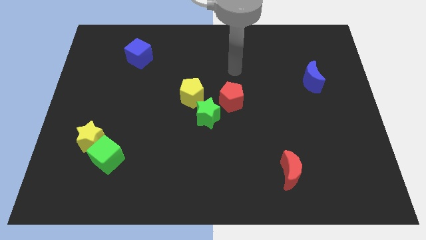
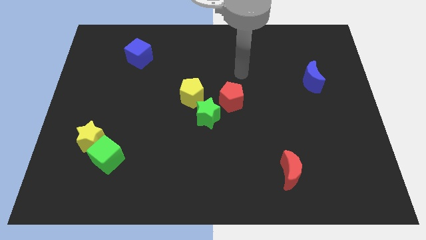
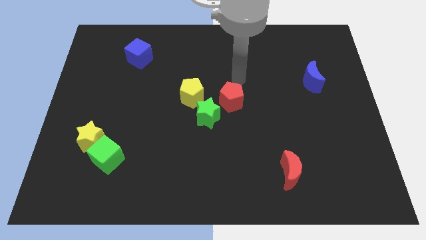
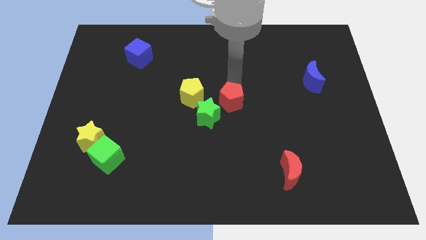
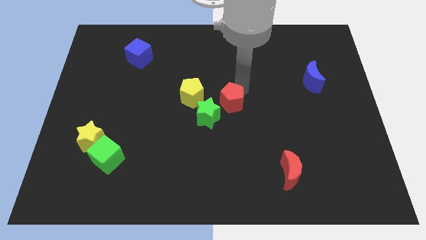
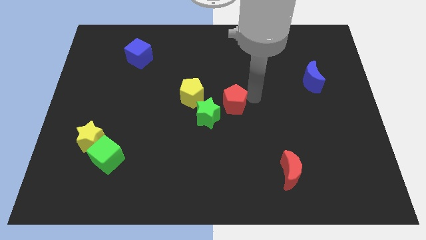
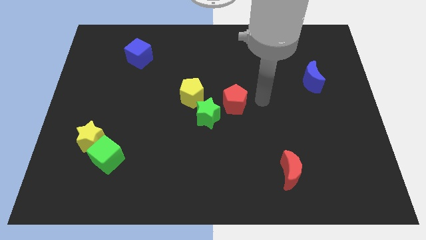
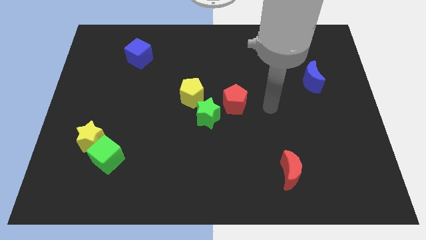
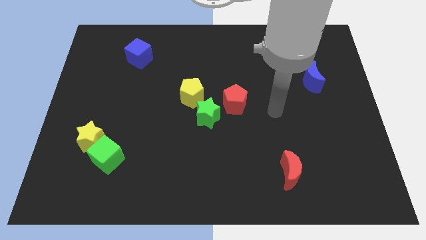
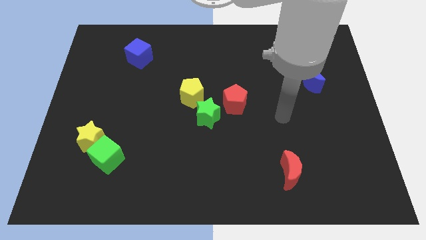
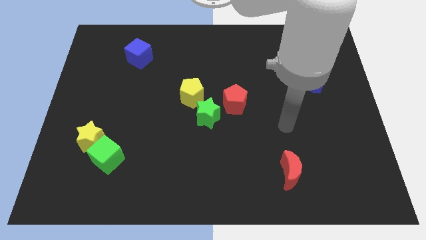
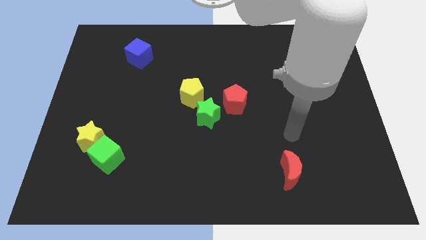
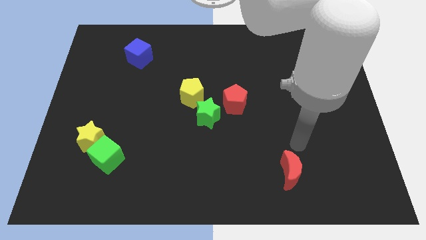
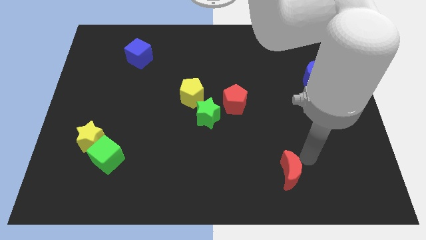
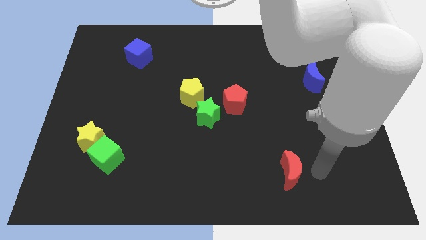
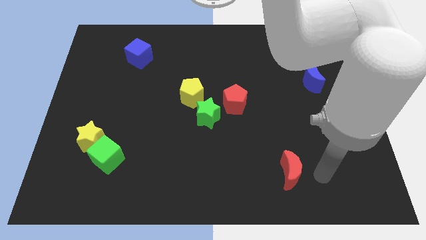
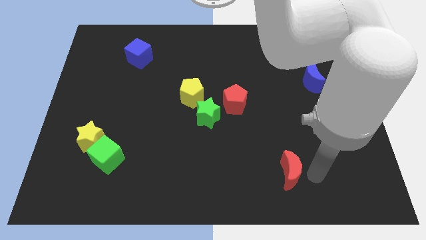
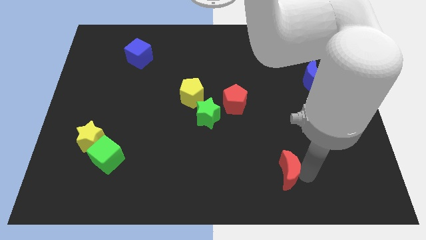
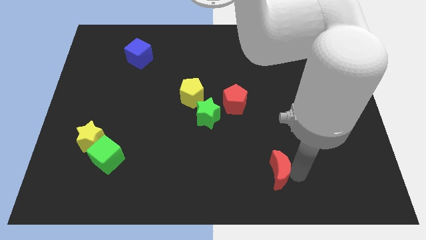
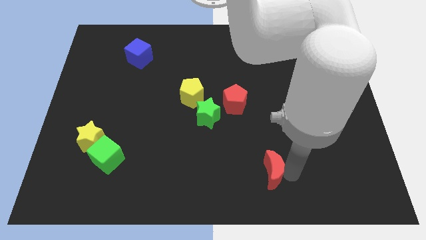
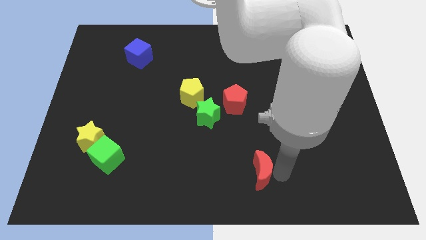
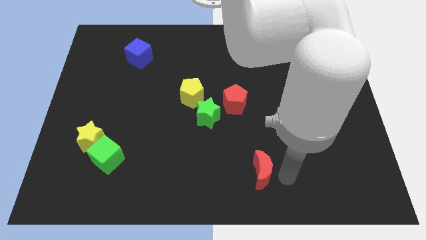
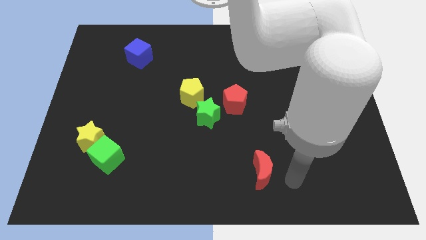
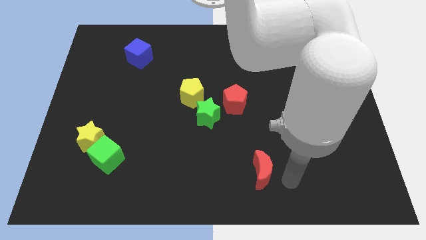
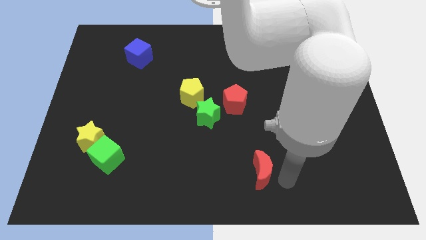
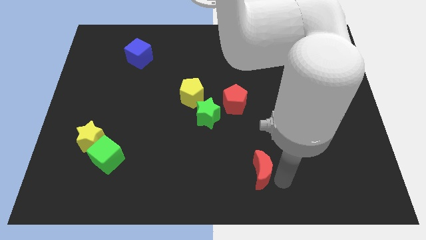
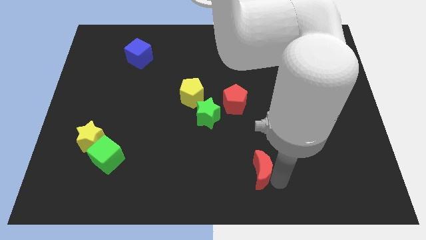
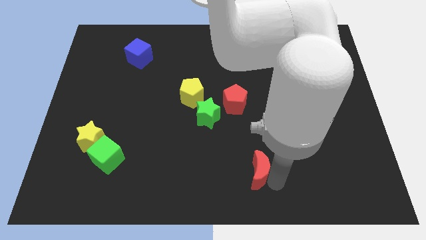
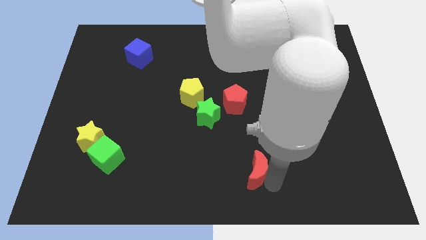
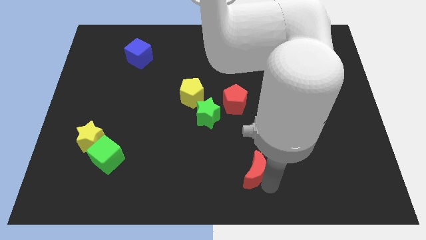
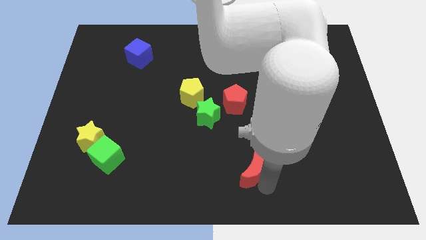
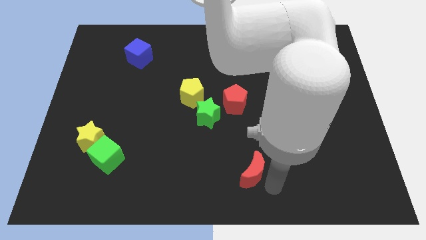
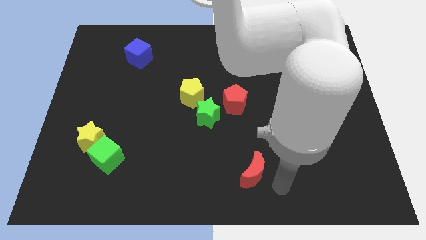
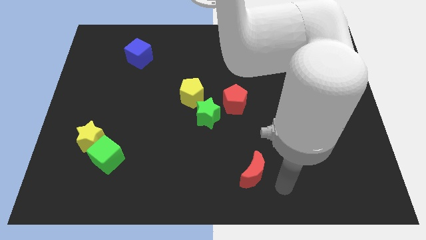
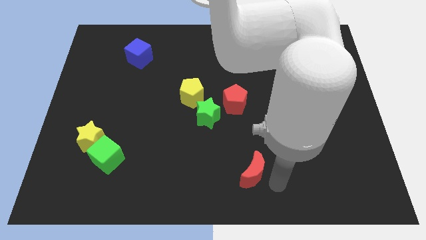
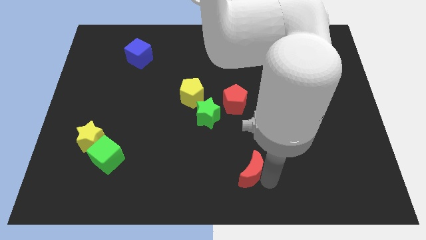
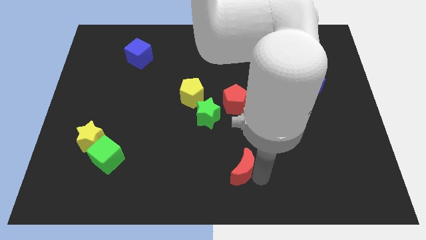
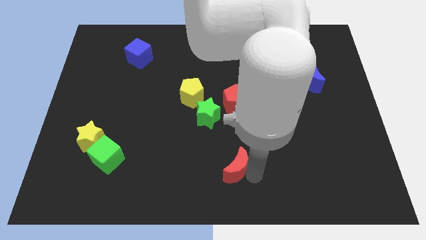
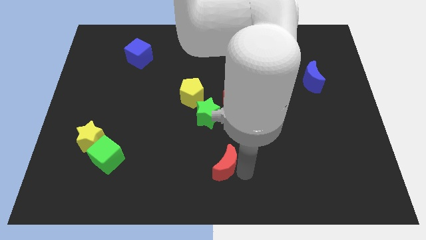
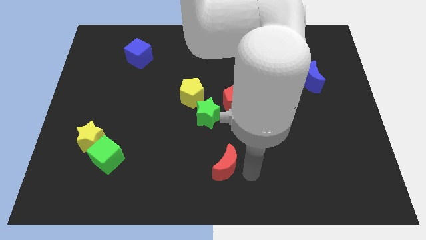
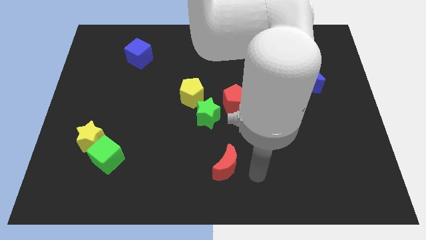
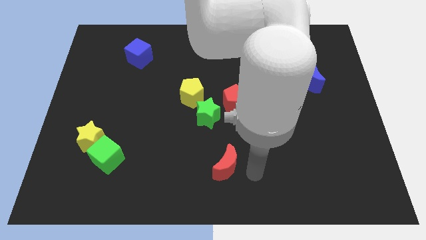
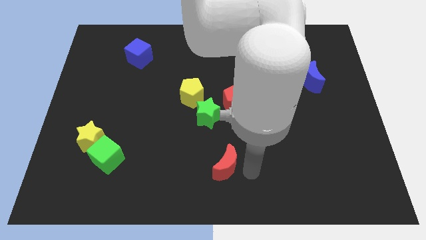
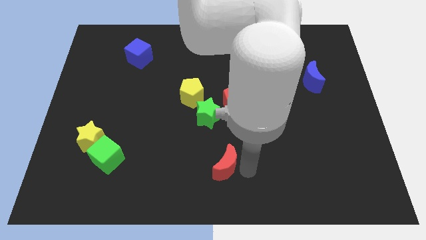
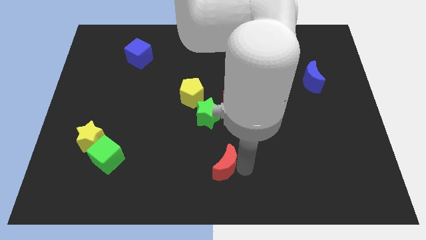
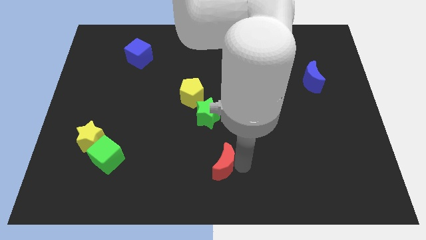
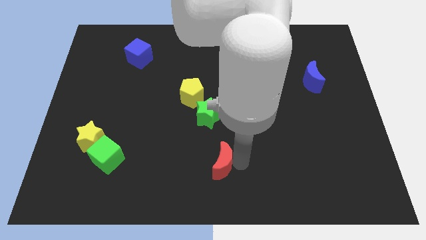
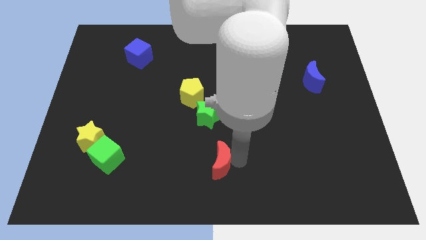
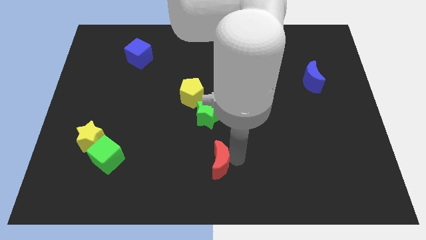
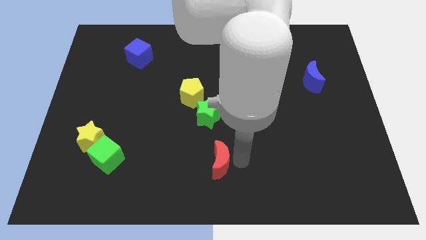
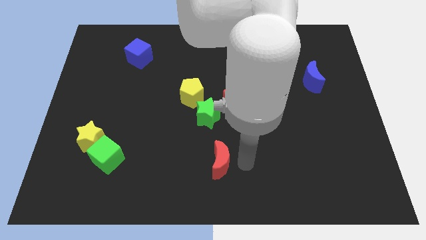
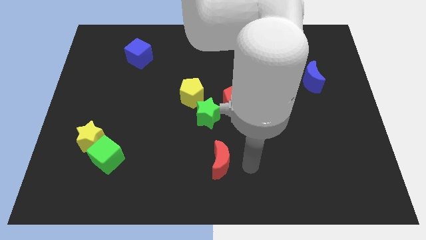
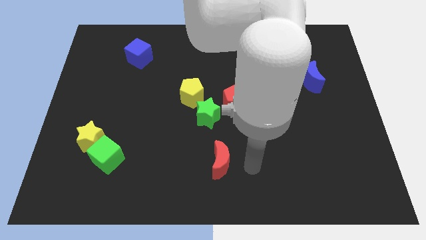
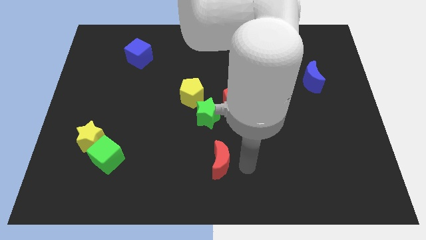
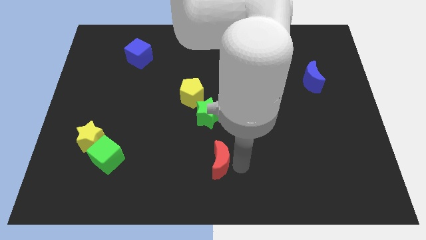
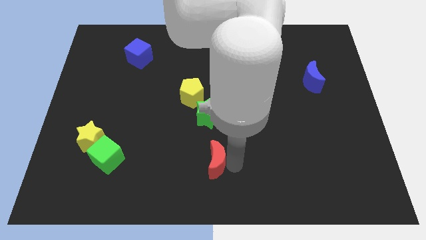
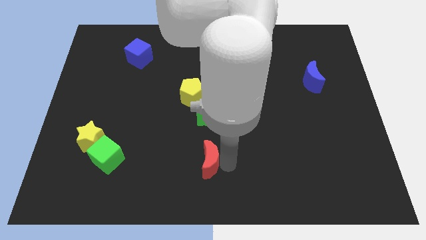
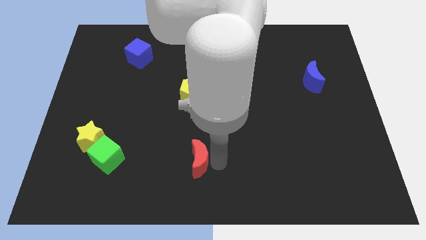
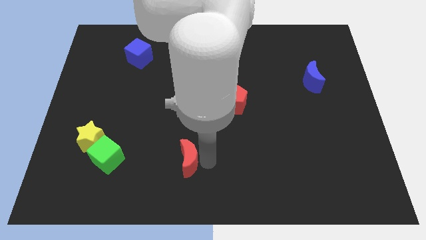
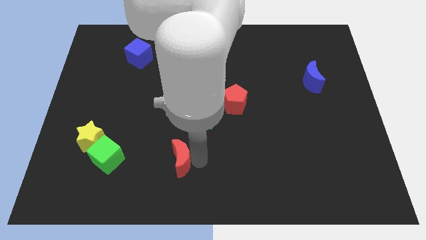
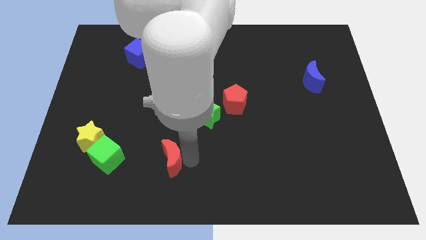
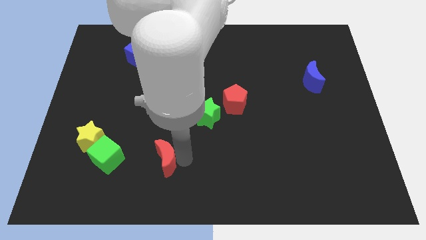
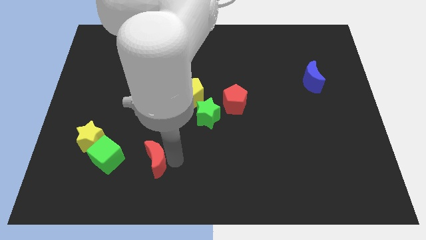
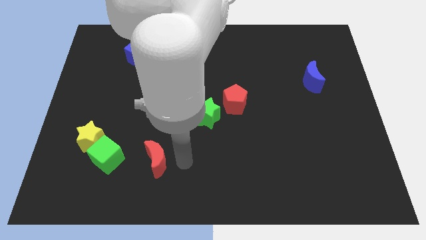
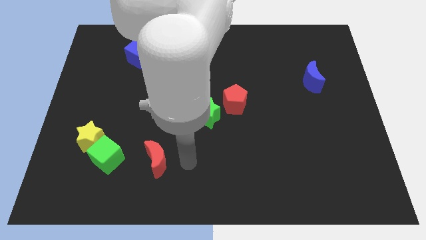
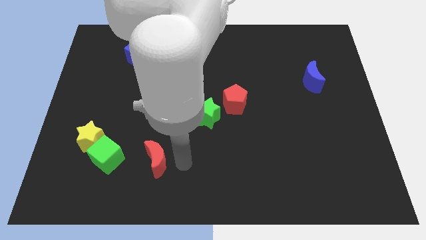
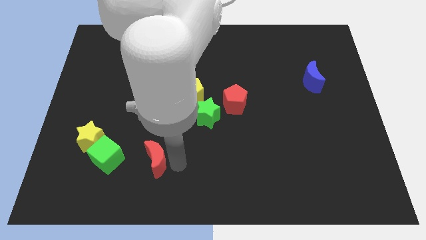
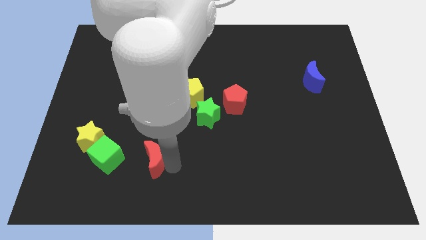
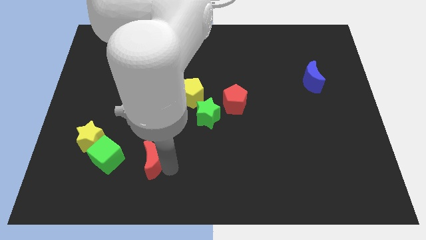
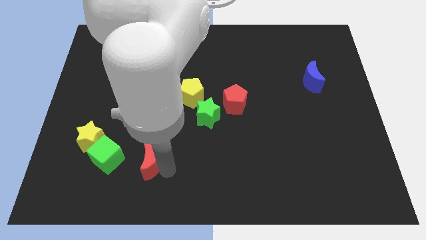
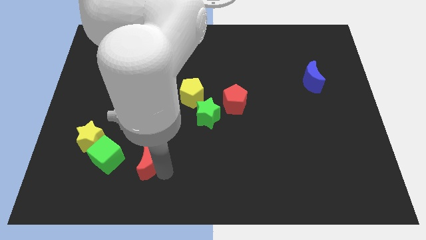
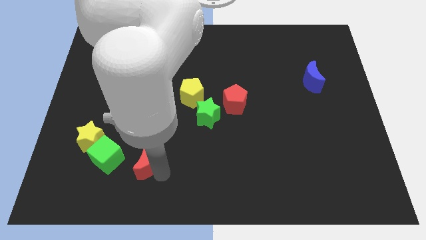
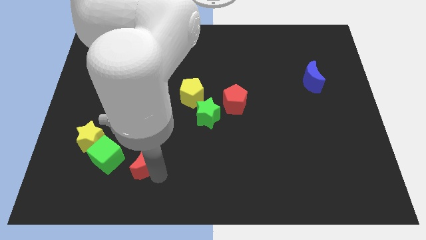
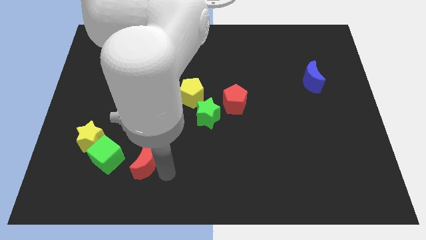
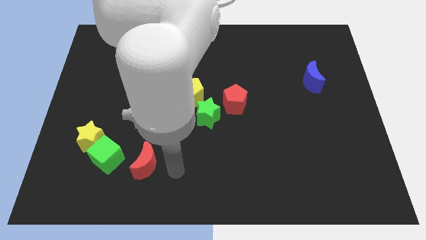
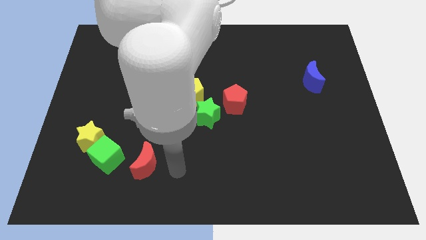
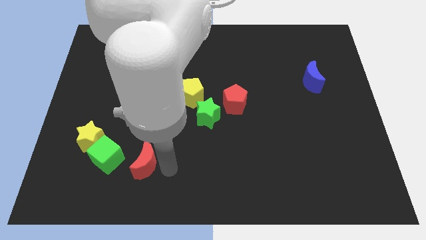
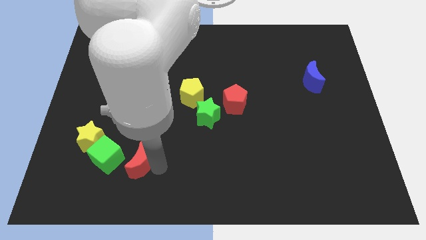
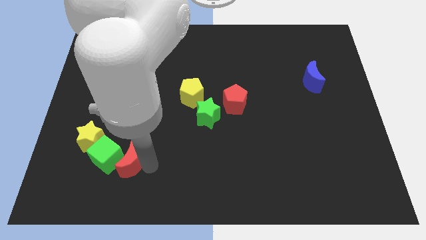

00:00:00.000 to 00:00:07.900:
move the red moon close to the green cube

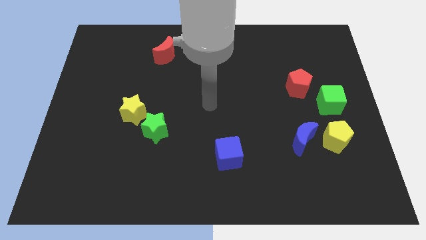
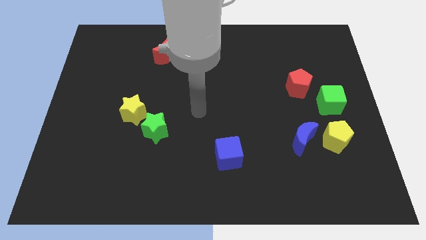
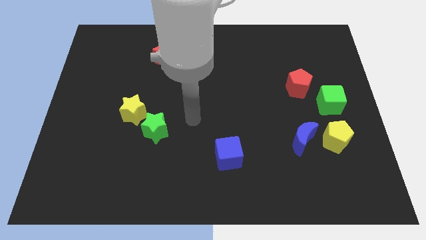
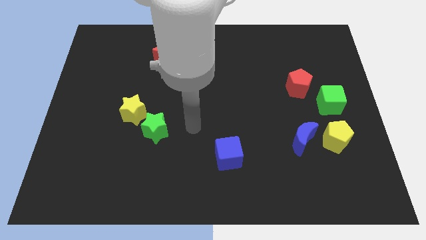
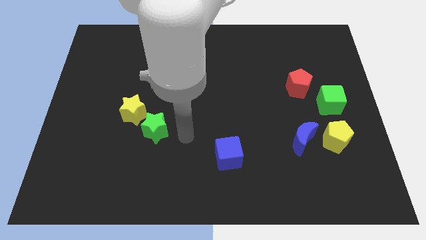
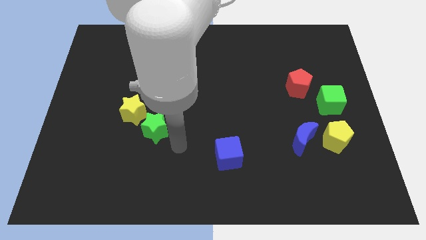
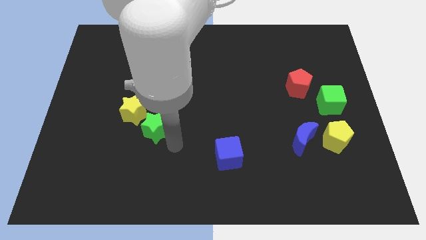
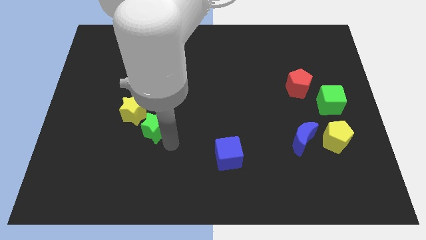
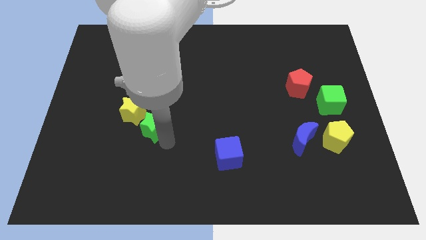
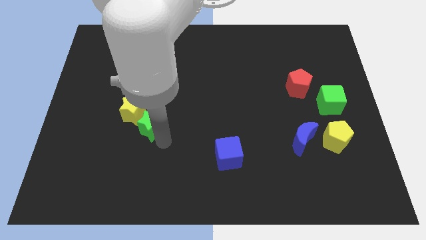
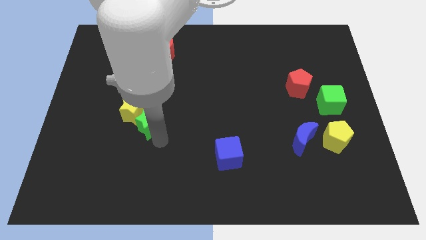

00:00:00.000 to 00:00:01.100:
push the green star close to the yellow star
